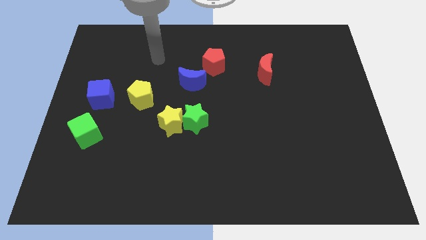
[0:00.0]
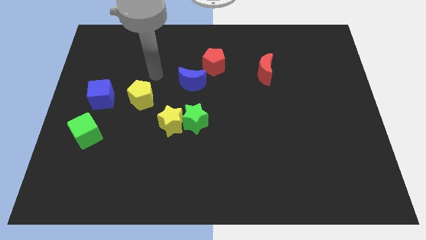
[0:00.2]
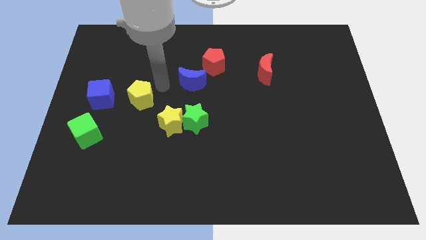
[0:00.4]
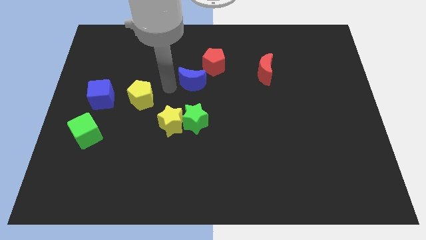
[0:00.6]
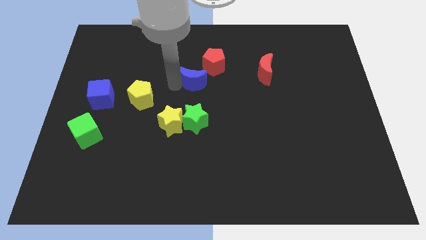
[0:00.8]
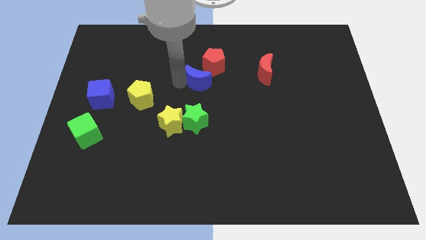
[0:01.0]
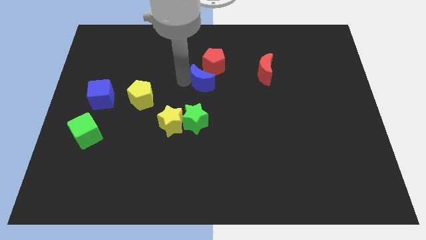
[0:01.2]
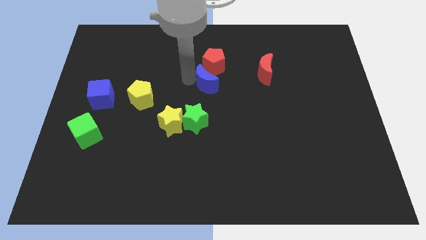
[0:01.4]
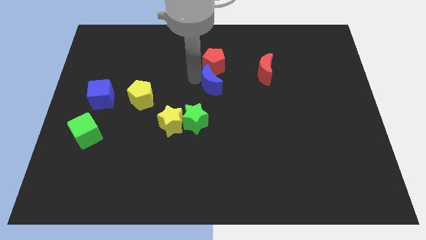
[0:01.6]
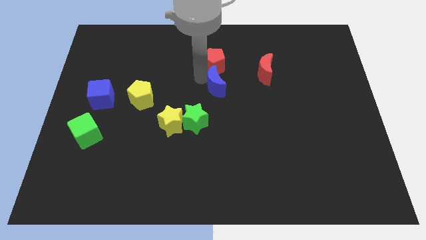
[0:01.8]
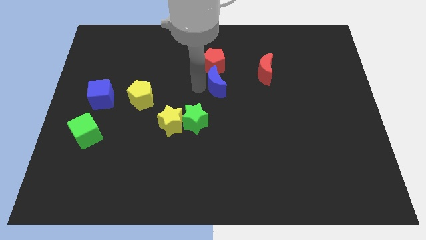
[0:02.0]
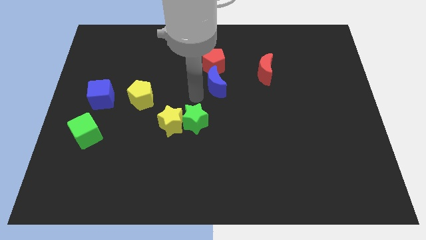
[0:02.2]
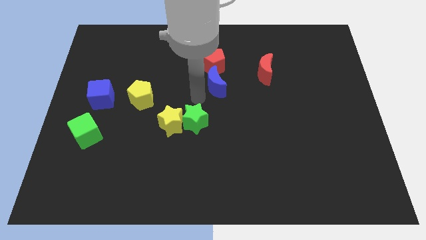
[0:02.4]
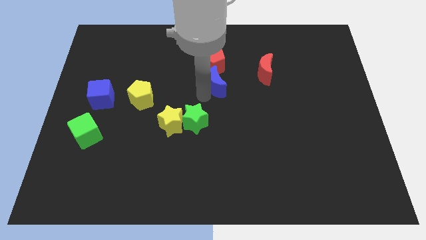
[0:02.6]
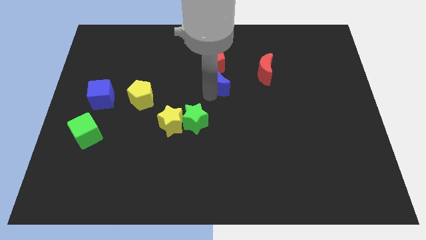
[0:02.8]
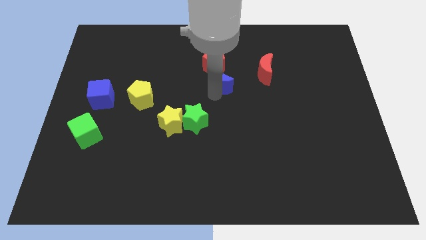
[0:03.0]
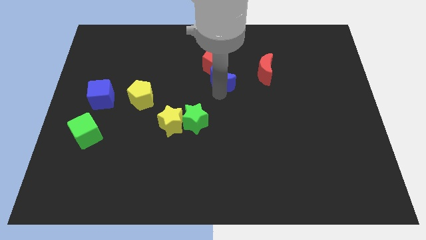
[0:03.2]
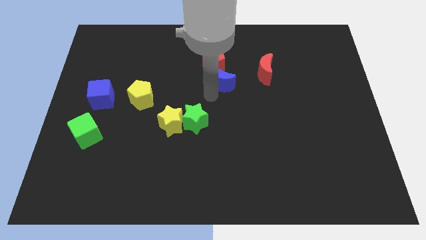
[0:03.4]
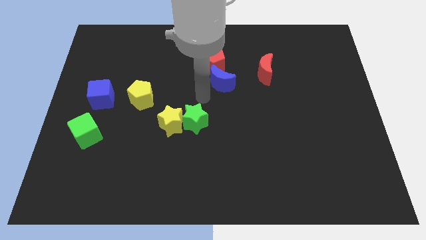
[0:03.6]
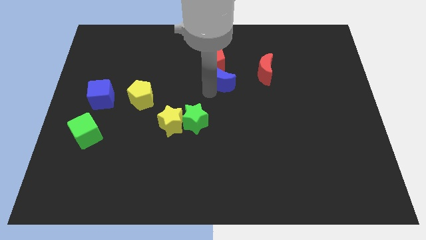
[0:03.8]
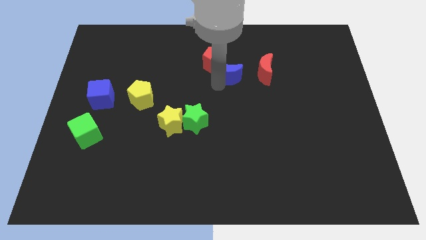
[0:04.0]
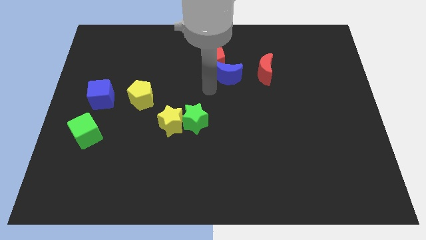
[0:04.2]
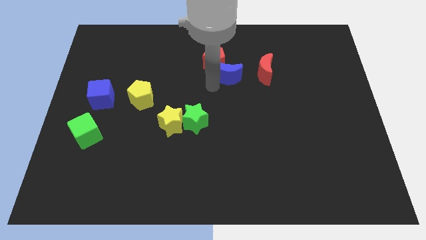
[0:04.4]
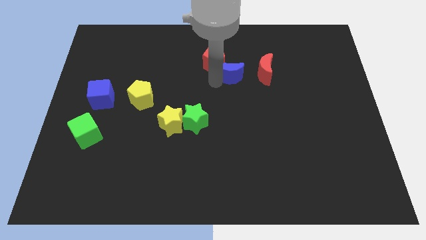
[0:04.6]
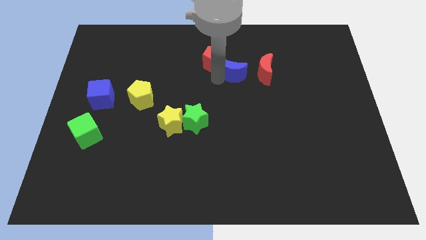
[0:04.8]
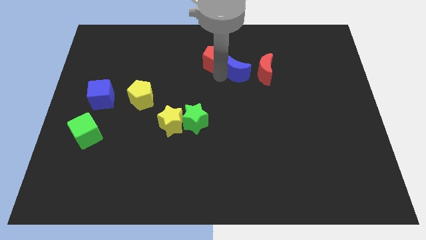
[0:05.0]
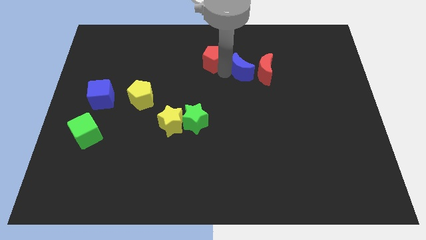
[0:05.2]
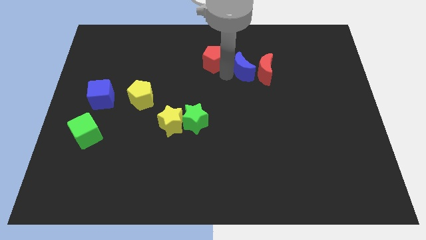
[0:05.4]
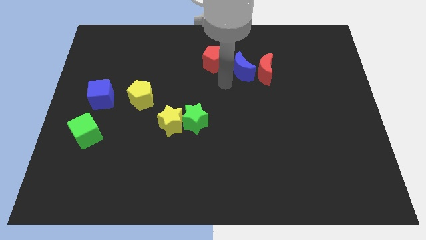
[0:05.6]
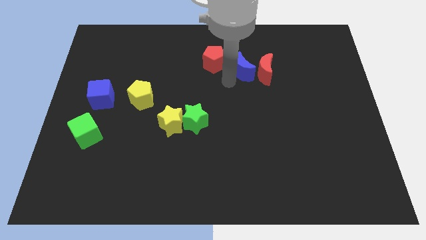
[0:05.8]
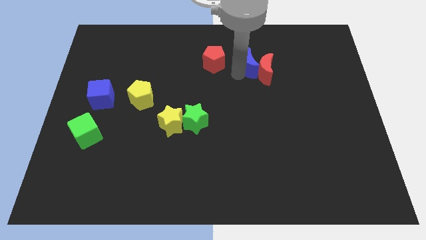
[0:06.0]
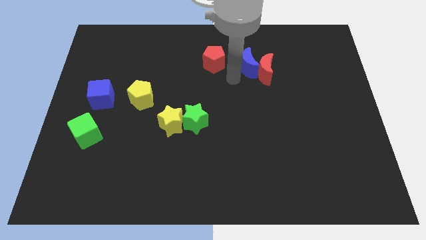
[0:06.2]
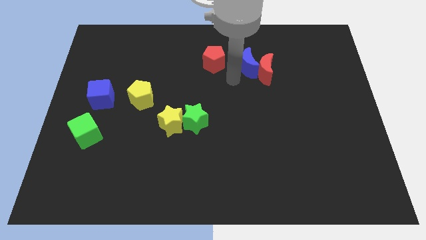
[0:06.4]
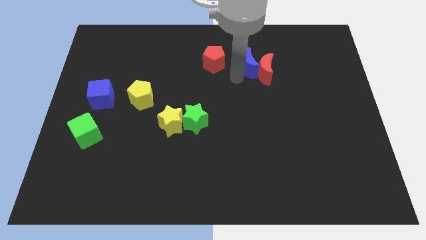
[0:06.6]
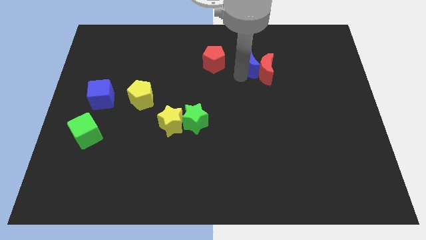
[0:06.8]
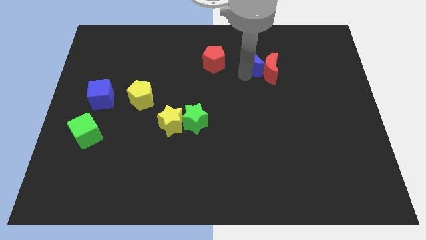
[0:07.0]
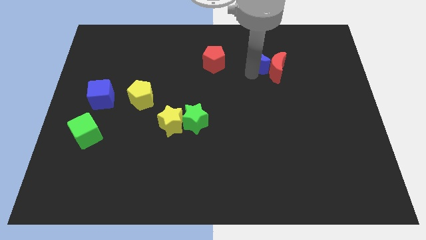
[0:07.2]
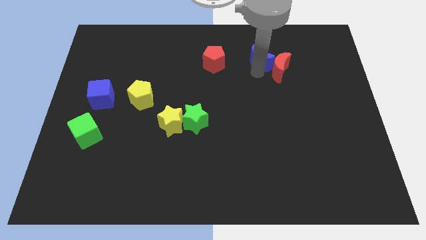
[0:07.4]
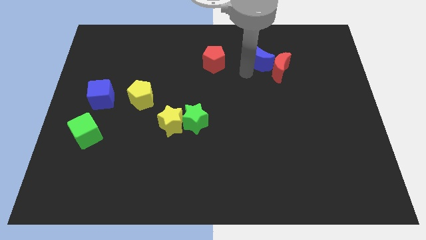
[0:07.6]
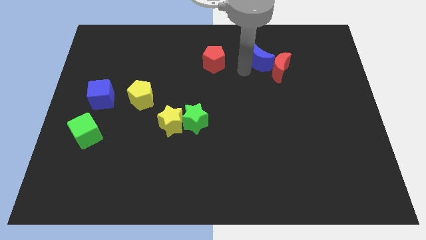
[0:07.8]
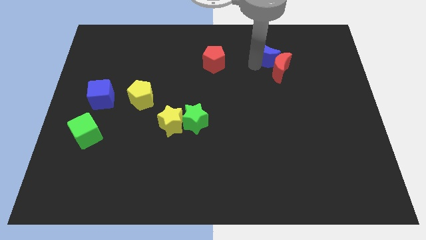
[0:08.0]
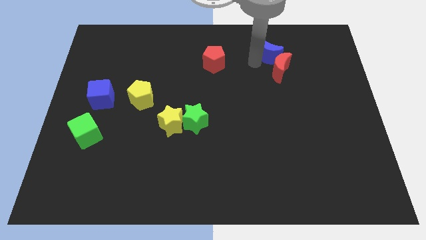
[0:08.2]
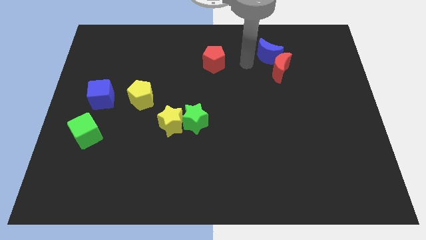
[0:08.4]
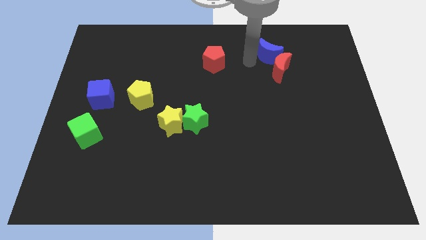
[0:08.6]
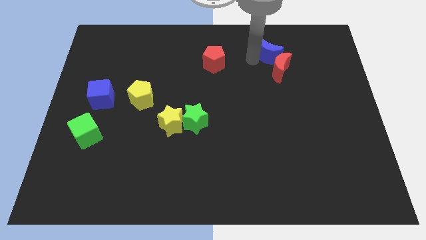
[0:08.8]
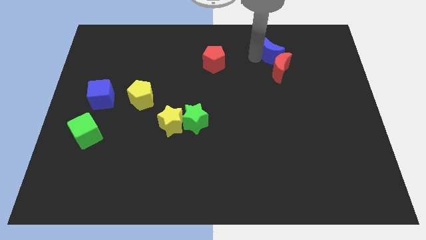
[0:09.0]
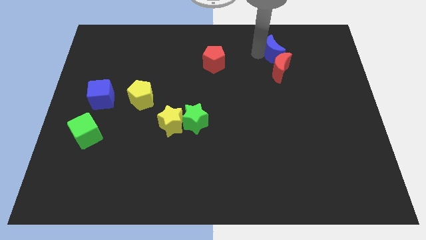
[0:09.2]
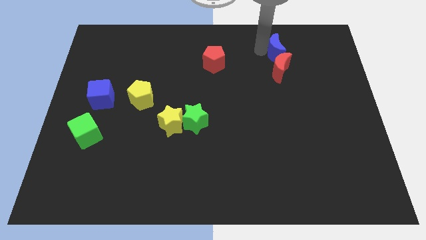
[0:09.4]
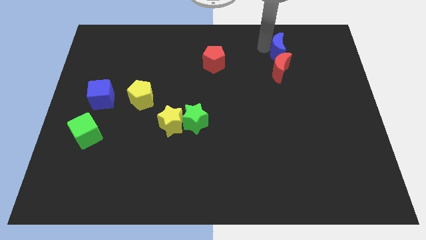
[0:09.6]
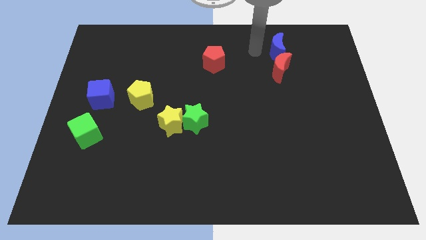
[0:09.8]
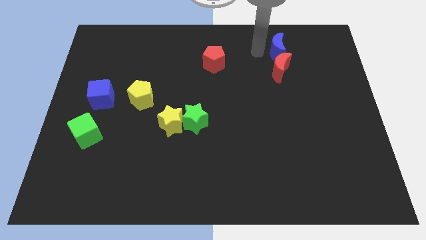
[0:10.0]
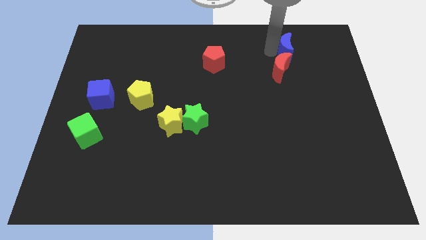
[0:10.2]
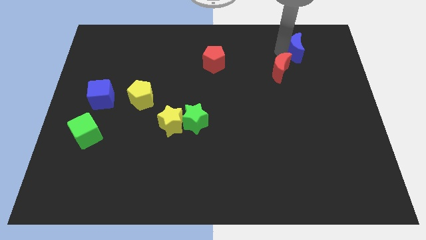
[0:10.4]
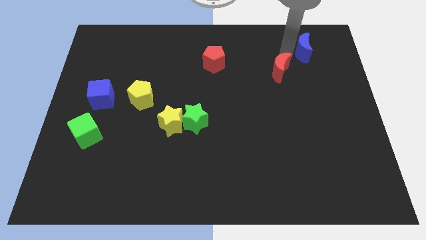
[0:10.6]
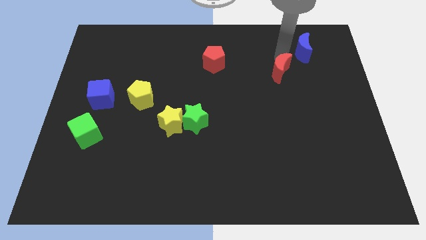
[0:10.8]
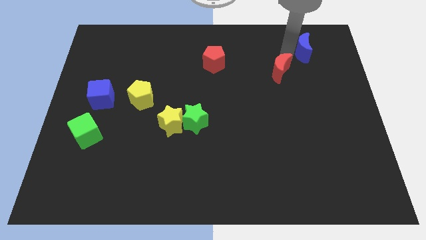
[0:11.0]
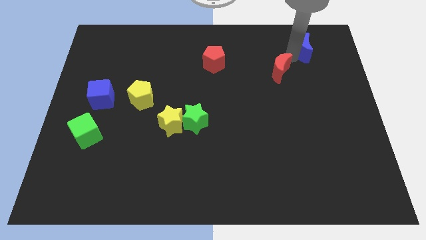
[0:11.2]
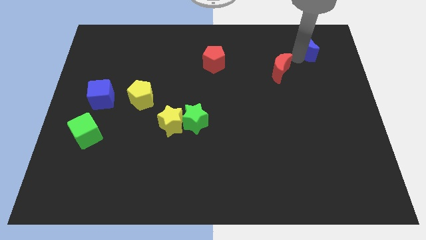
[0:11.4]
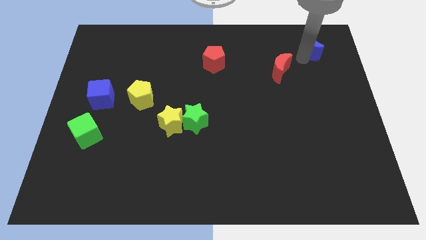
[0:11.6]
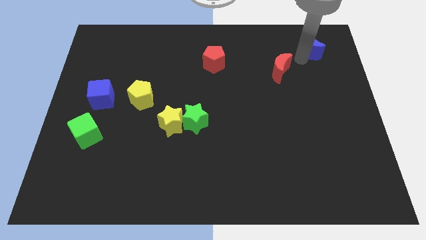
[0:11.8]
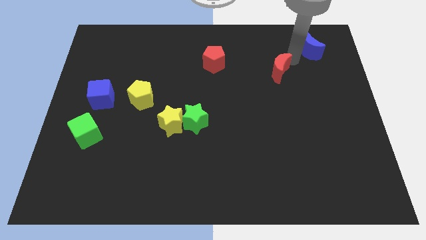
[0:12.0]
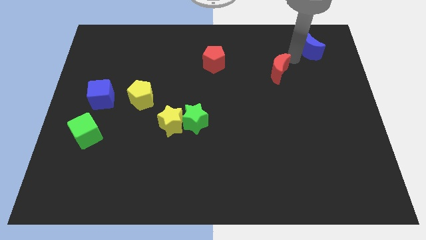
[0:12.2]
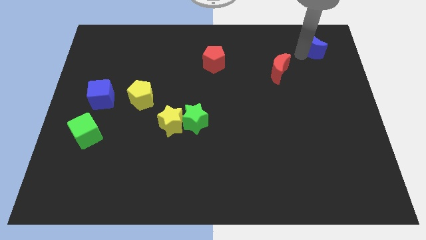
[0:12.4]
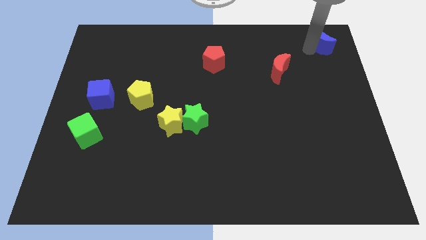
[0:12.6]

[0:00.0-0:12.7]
push the blue moon to the top right of the board
